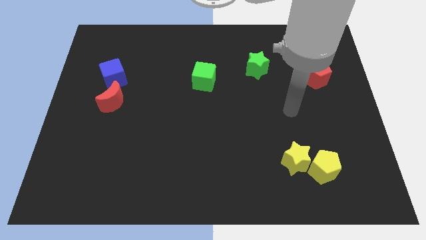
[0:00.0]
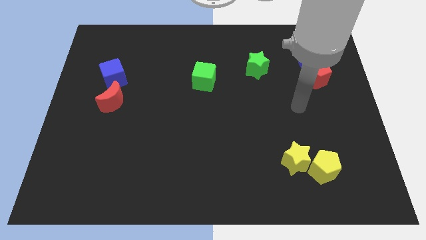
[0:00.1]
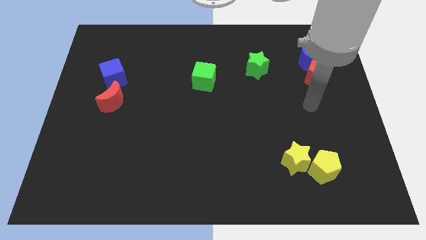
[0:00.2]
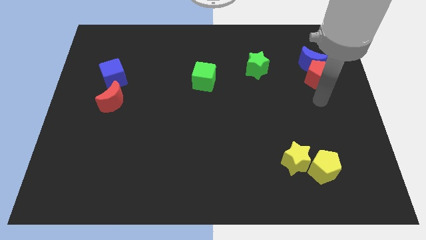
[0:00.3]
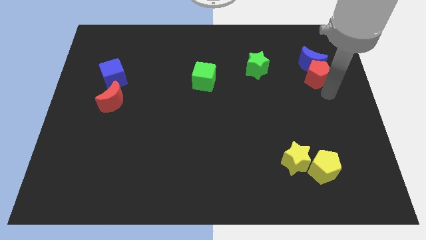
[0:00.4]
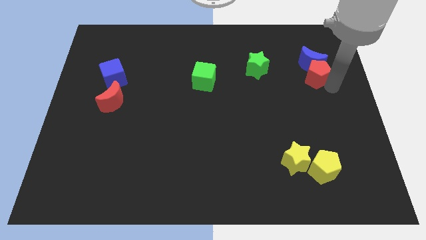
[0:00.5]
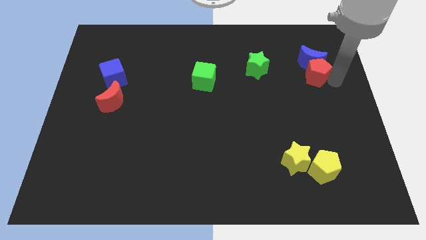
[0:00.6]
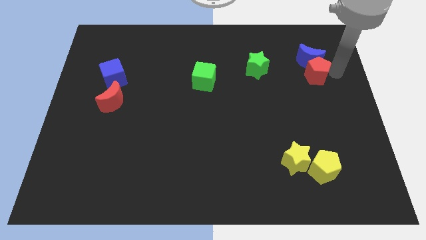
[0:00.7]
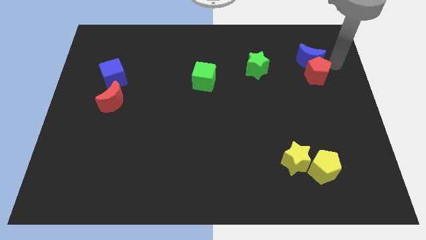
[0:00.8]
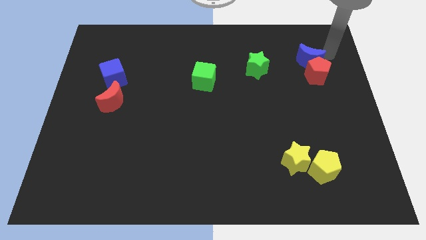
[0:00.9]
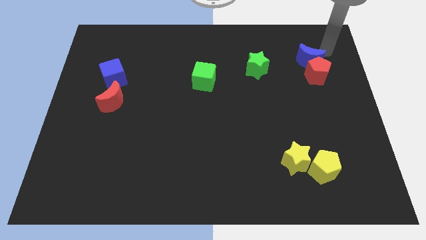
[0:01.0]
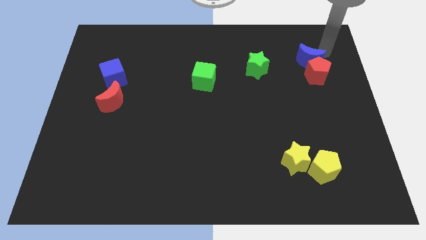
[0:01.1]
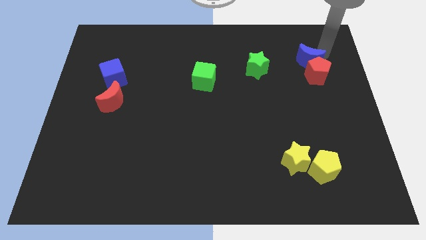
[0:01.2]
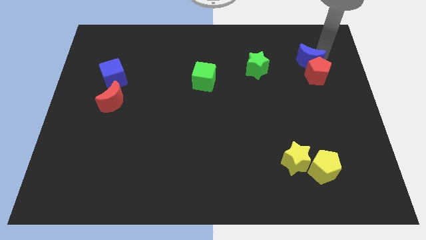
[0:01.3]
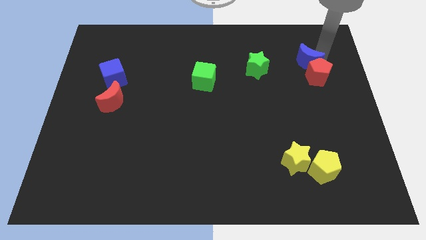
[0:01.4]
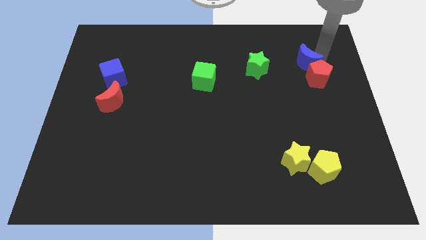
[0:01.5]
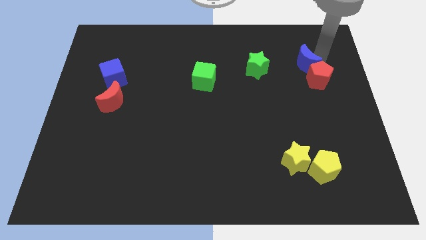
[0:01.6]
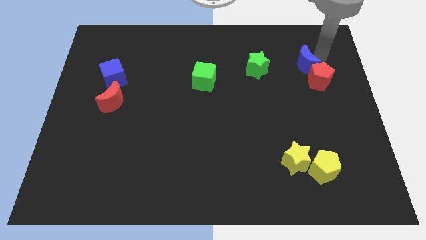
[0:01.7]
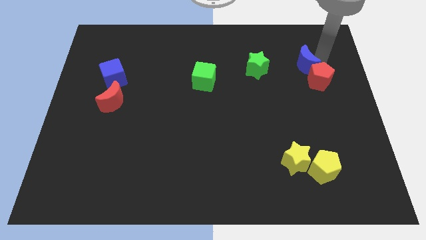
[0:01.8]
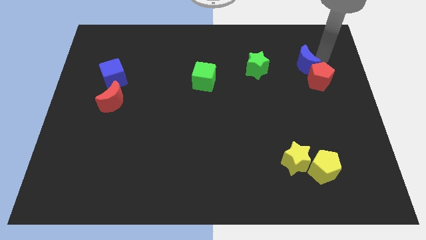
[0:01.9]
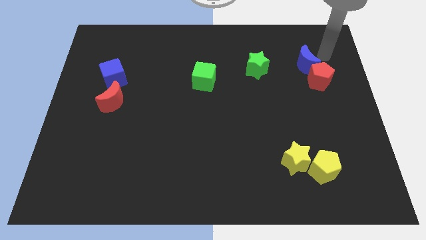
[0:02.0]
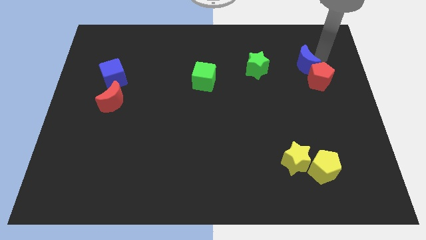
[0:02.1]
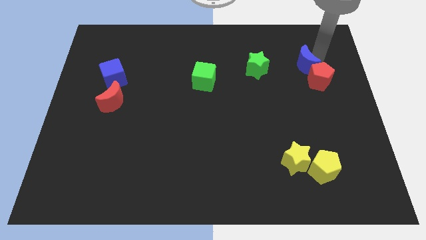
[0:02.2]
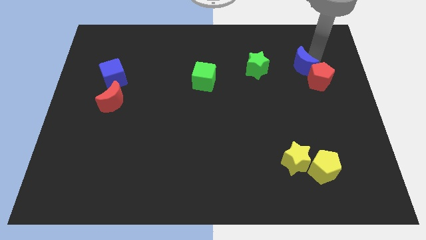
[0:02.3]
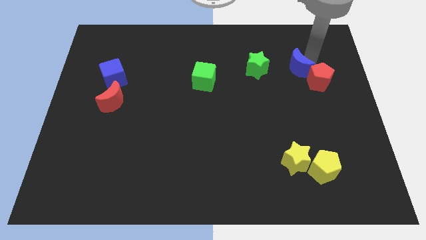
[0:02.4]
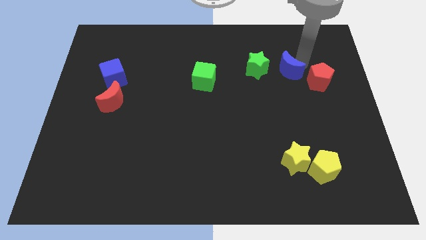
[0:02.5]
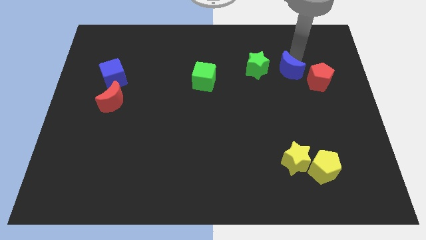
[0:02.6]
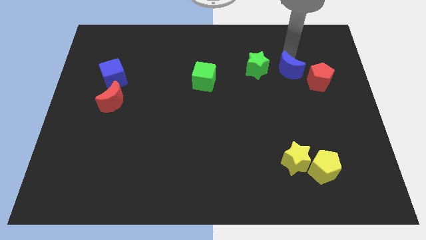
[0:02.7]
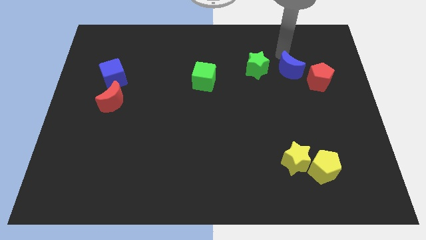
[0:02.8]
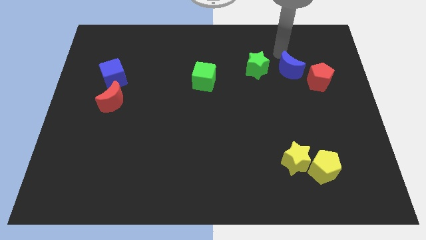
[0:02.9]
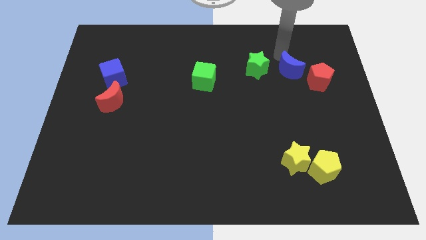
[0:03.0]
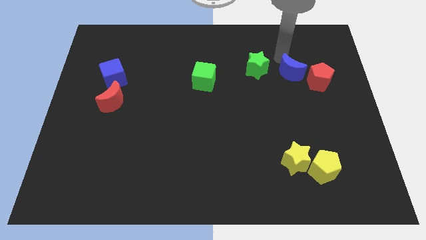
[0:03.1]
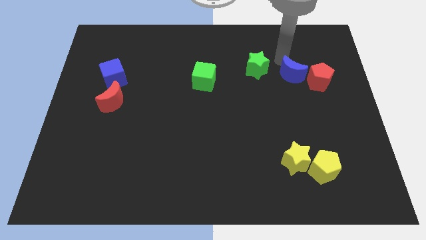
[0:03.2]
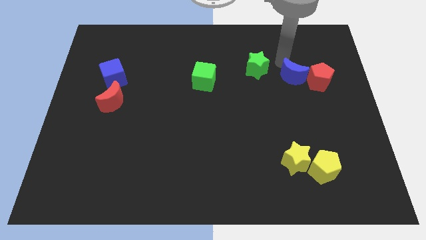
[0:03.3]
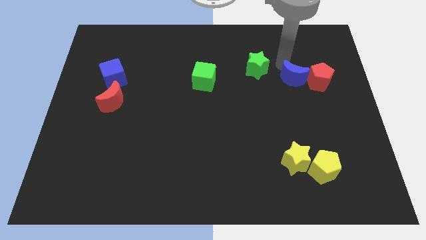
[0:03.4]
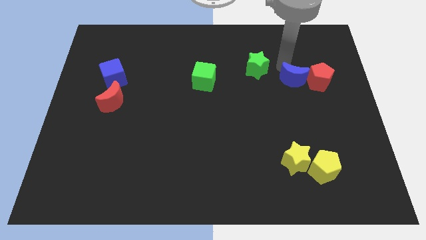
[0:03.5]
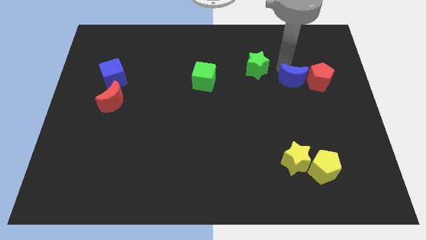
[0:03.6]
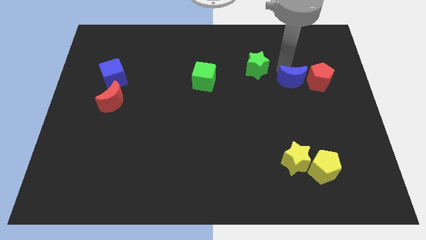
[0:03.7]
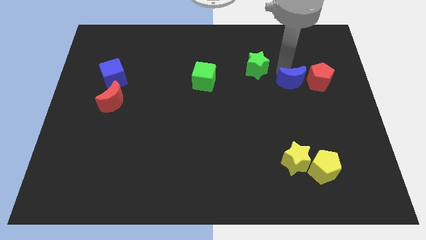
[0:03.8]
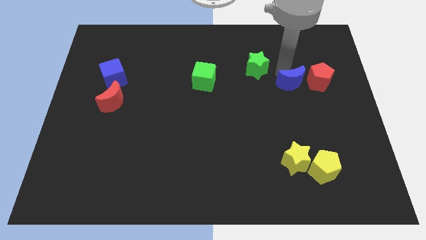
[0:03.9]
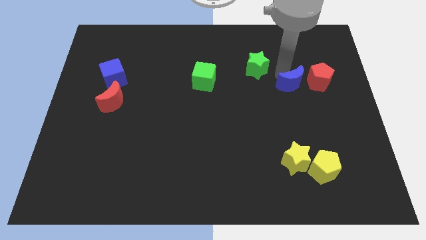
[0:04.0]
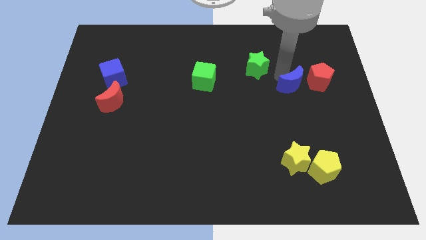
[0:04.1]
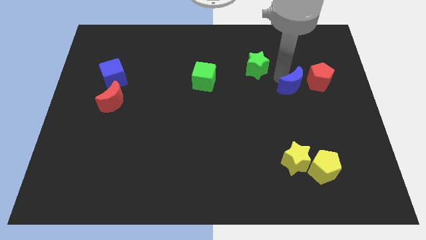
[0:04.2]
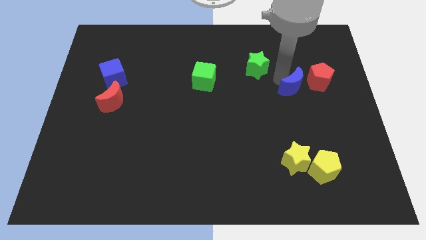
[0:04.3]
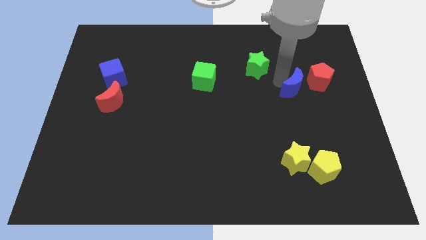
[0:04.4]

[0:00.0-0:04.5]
slightly move the blue moon downwards

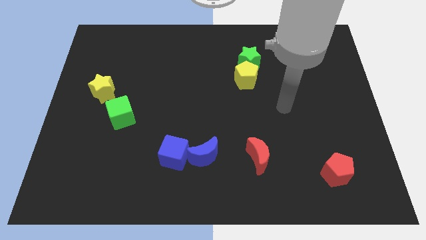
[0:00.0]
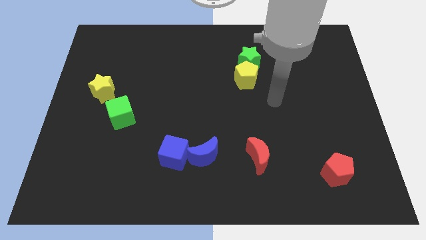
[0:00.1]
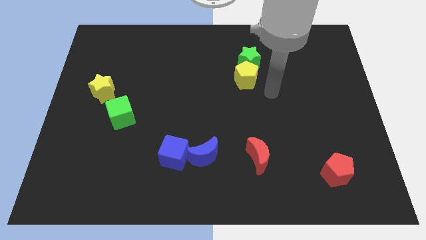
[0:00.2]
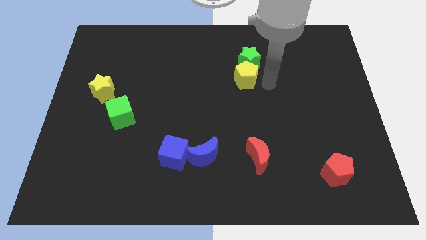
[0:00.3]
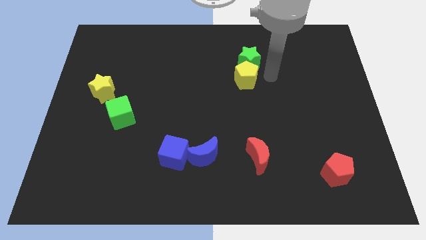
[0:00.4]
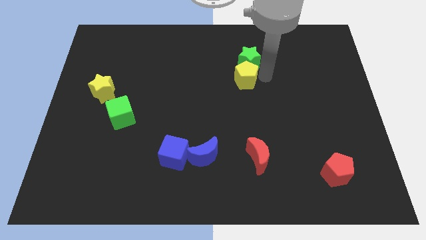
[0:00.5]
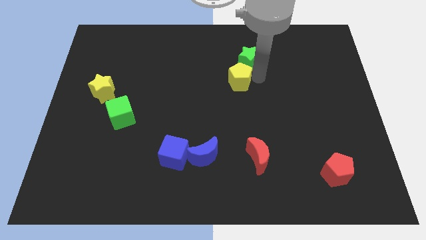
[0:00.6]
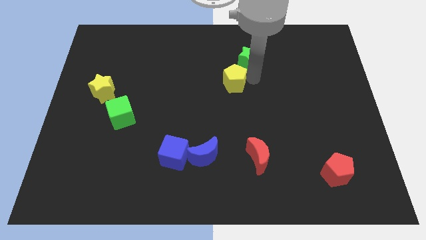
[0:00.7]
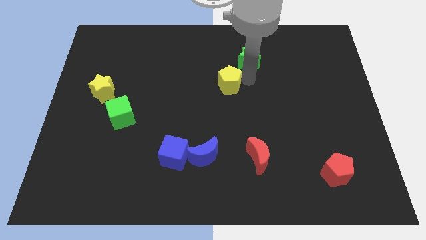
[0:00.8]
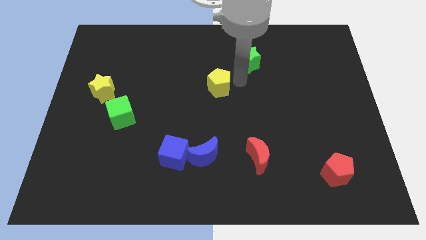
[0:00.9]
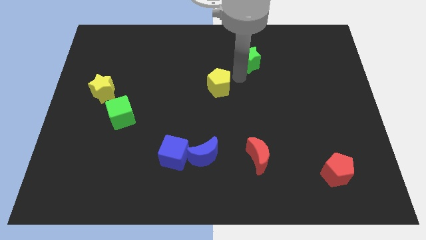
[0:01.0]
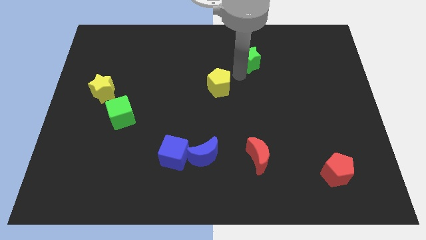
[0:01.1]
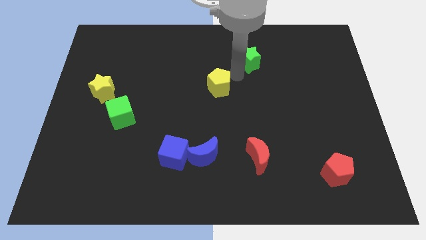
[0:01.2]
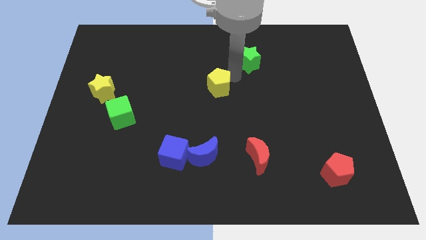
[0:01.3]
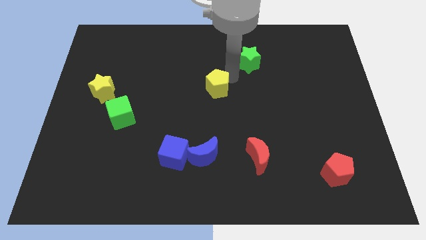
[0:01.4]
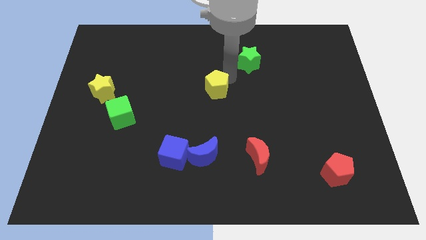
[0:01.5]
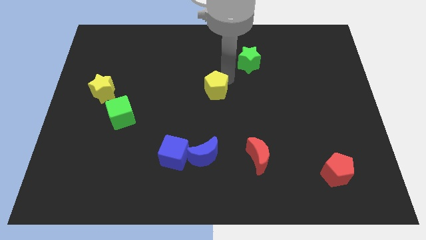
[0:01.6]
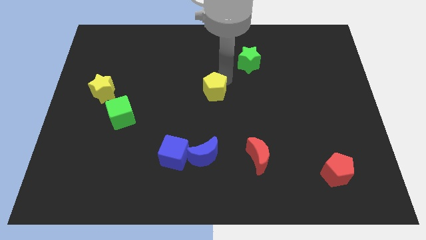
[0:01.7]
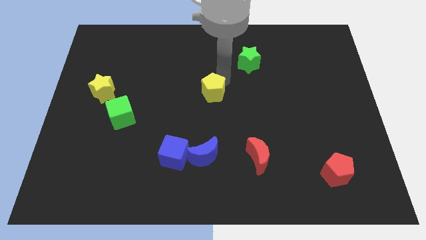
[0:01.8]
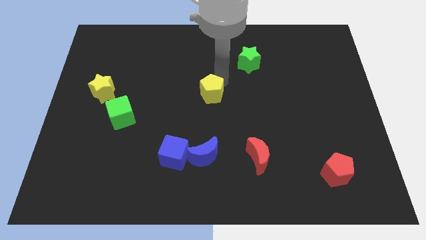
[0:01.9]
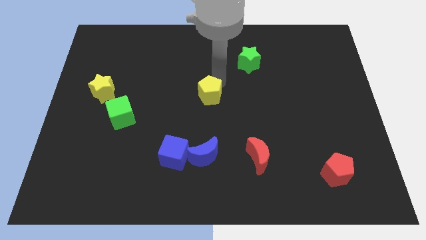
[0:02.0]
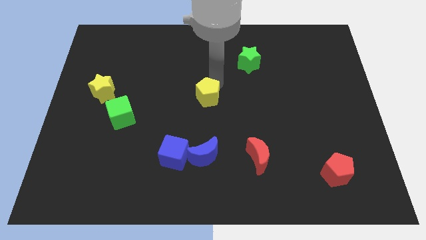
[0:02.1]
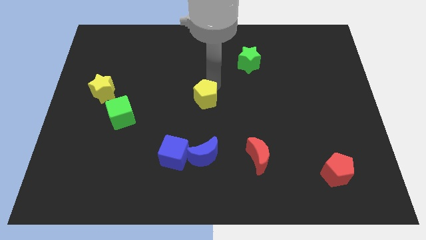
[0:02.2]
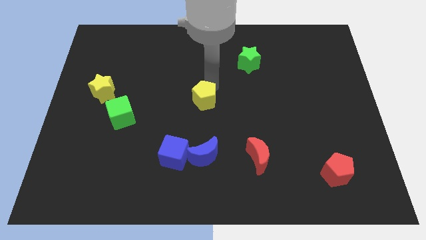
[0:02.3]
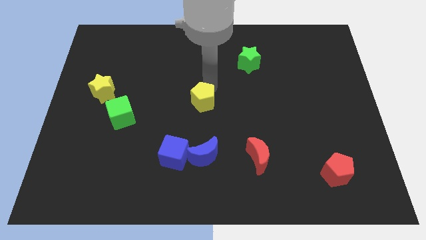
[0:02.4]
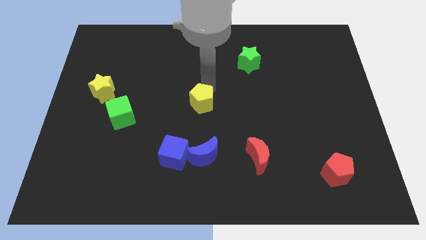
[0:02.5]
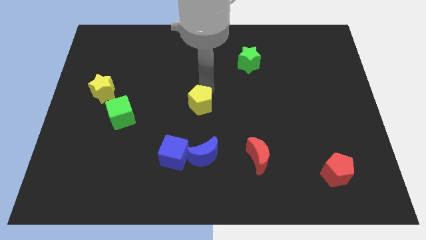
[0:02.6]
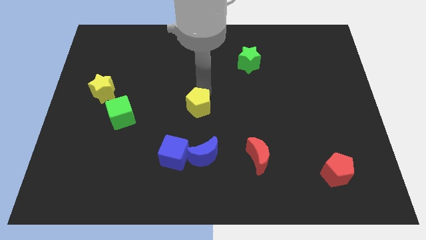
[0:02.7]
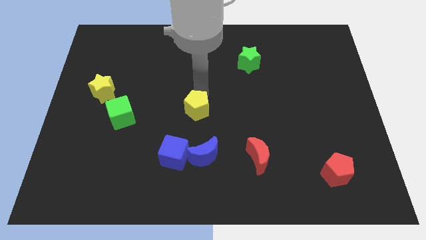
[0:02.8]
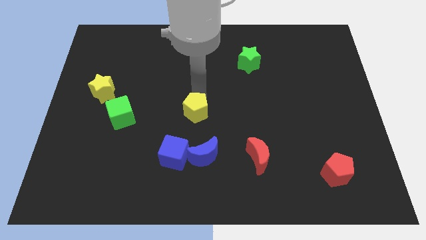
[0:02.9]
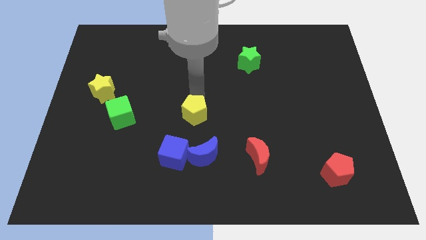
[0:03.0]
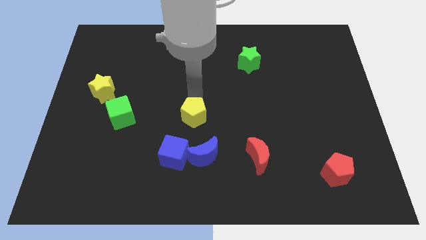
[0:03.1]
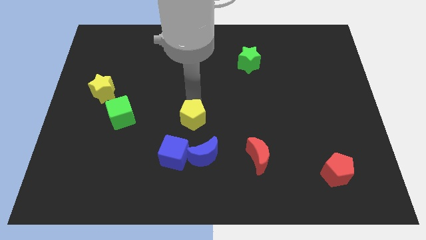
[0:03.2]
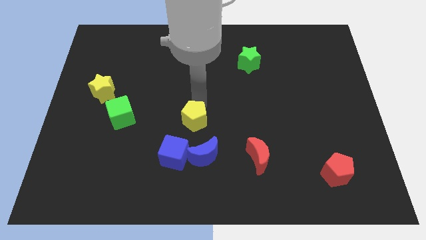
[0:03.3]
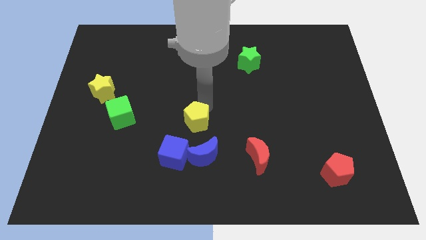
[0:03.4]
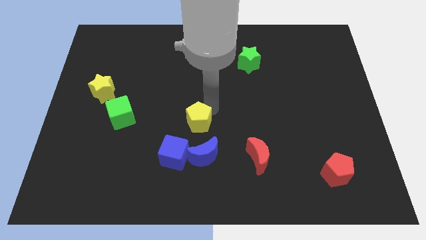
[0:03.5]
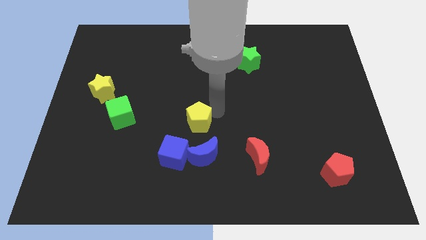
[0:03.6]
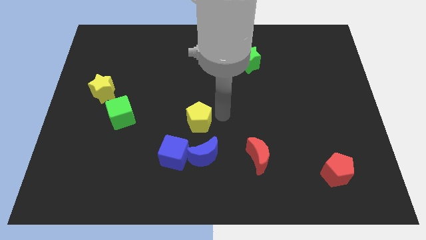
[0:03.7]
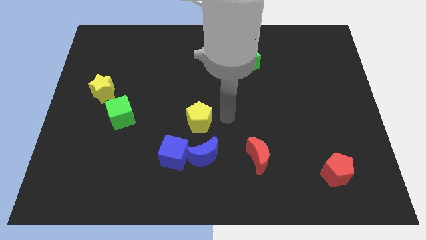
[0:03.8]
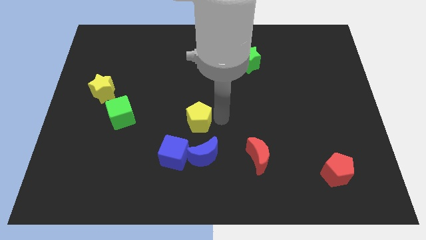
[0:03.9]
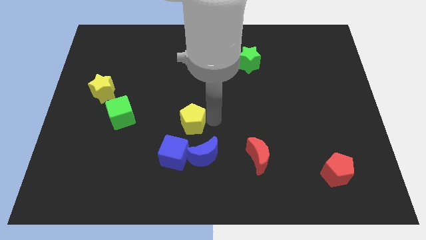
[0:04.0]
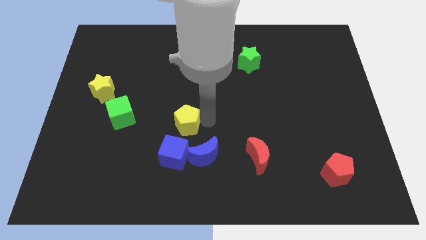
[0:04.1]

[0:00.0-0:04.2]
slide the yellow pentagon downwards and left
